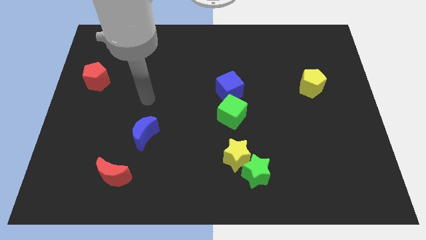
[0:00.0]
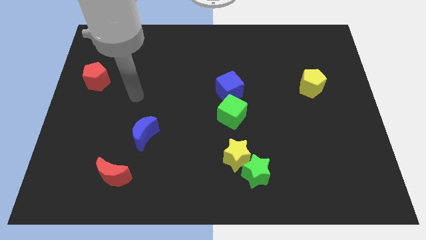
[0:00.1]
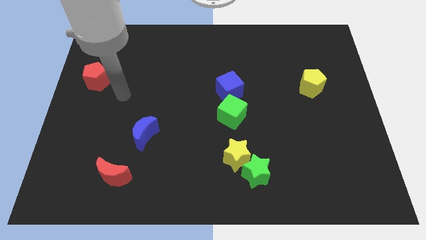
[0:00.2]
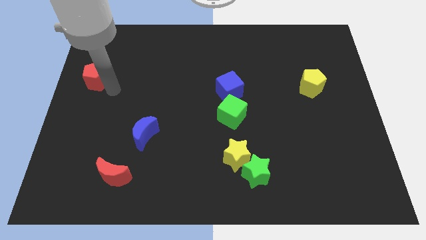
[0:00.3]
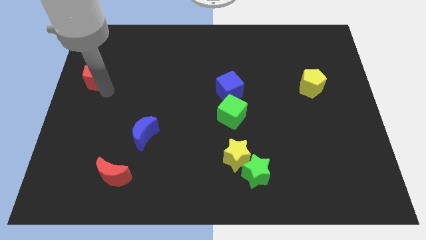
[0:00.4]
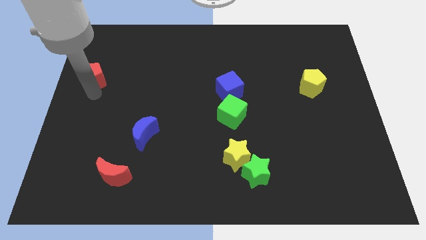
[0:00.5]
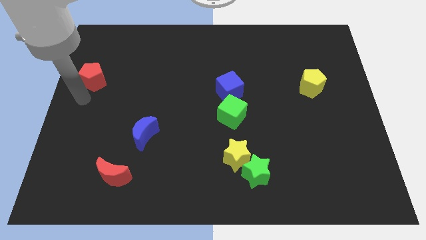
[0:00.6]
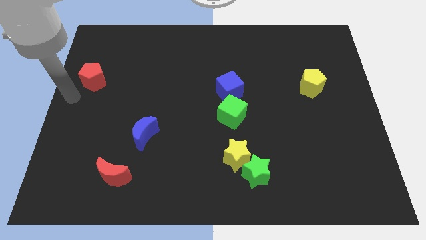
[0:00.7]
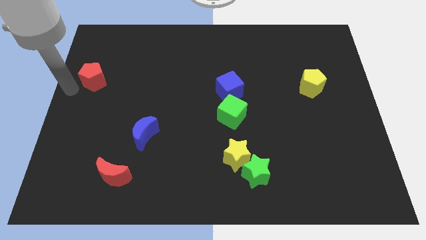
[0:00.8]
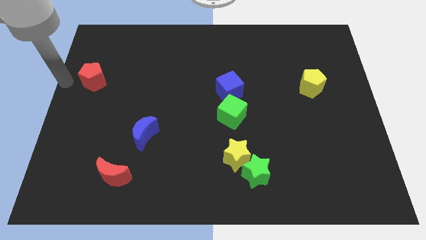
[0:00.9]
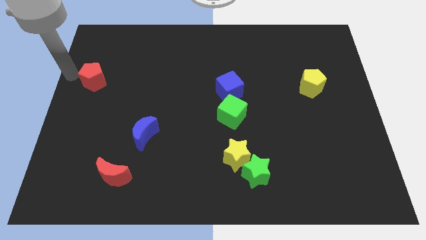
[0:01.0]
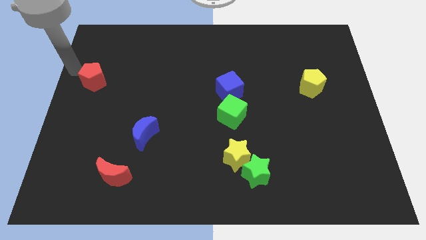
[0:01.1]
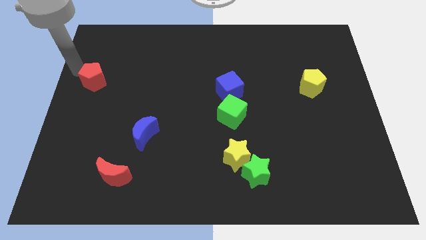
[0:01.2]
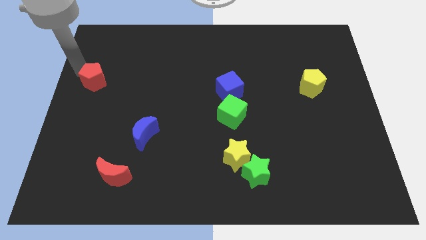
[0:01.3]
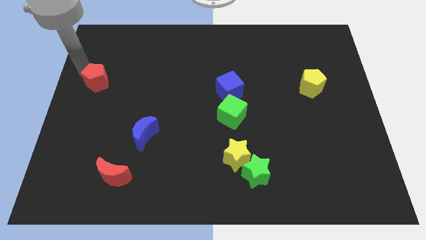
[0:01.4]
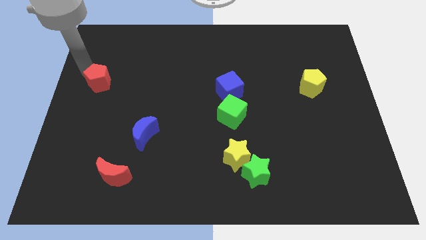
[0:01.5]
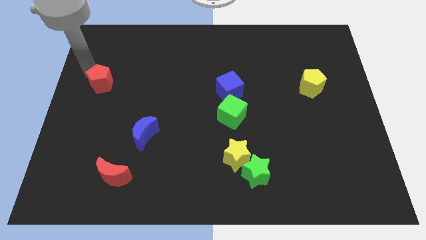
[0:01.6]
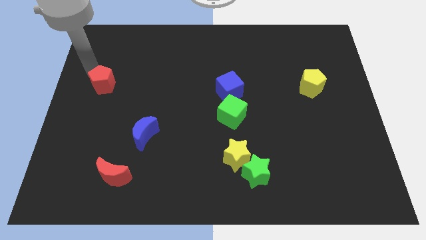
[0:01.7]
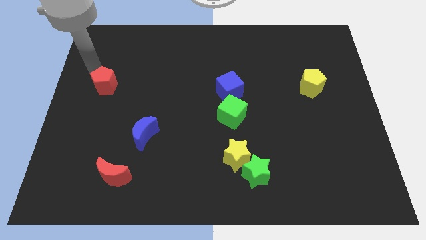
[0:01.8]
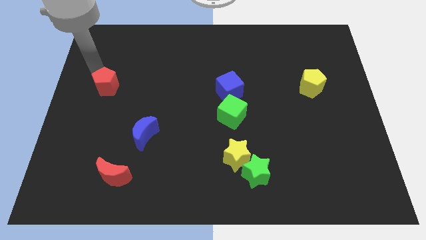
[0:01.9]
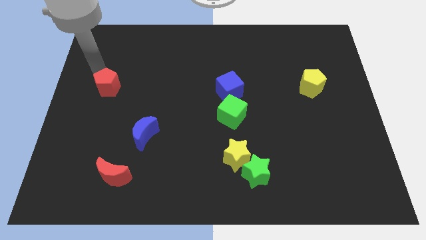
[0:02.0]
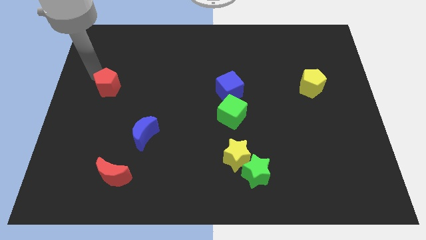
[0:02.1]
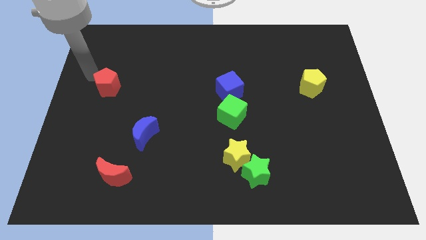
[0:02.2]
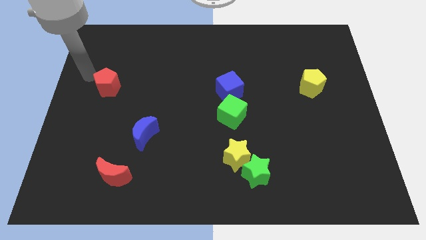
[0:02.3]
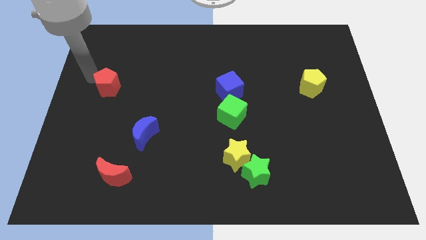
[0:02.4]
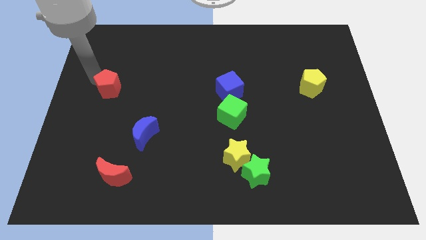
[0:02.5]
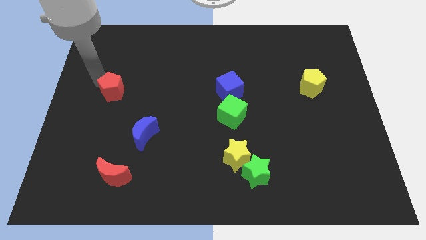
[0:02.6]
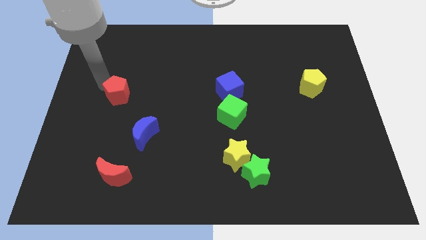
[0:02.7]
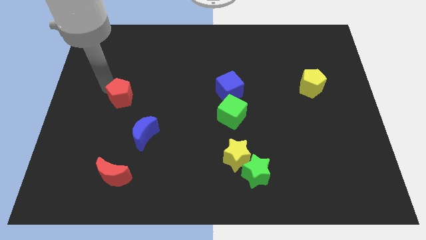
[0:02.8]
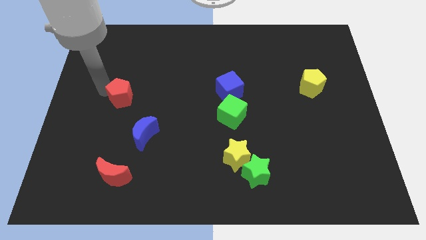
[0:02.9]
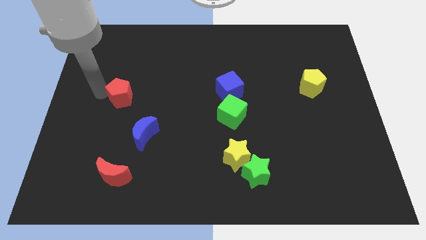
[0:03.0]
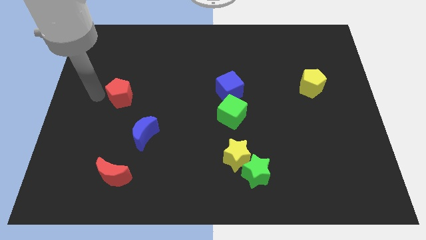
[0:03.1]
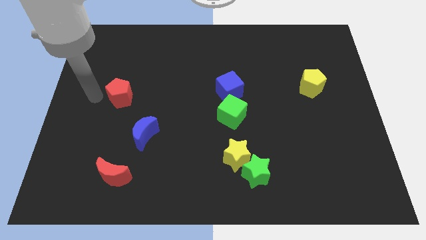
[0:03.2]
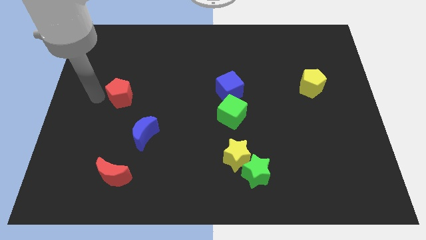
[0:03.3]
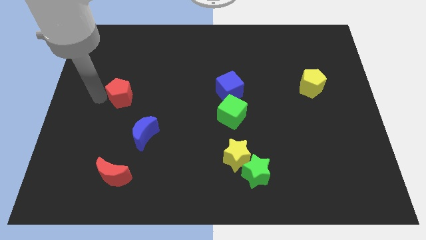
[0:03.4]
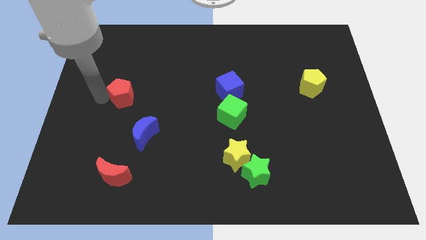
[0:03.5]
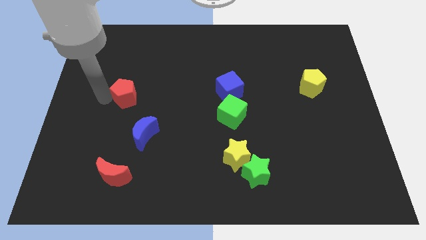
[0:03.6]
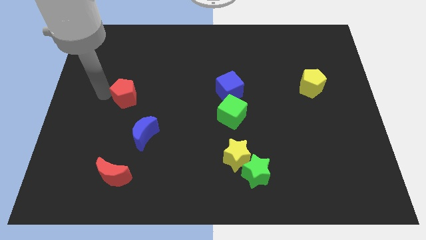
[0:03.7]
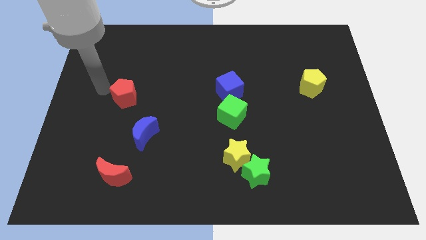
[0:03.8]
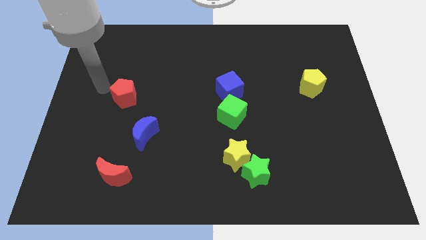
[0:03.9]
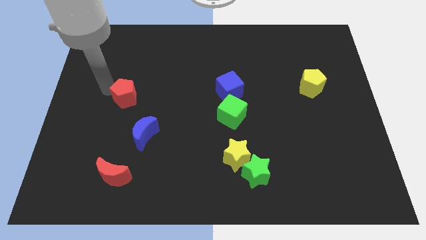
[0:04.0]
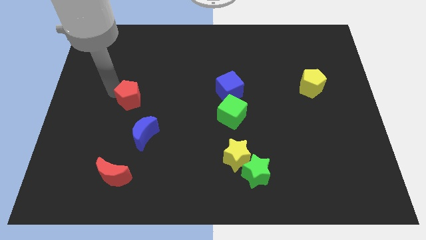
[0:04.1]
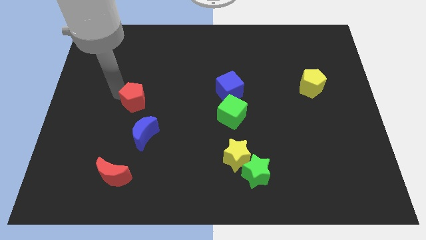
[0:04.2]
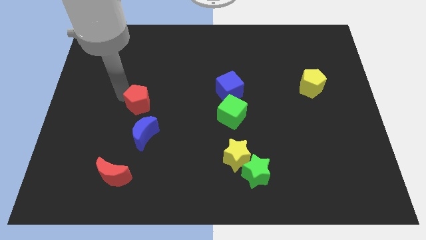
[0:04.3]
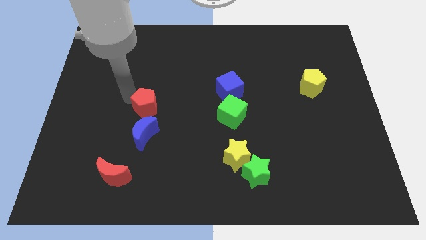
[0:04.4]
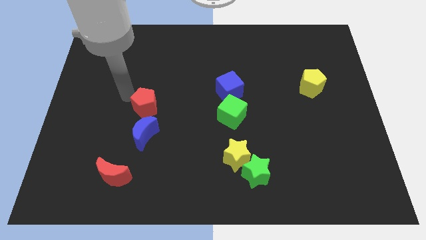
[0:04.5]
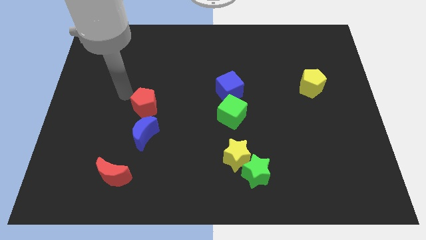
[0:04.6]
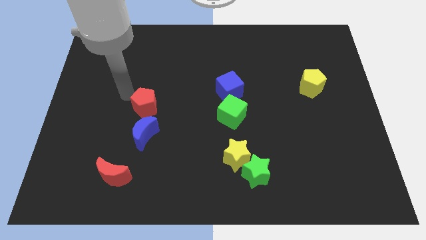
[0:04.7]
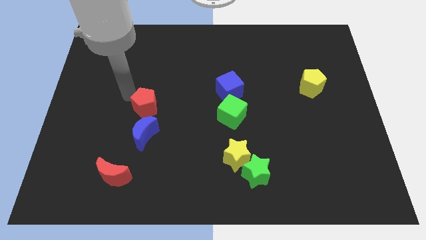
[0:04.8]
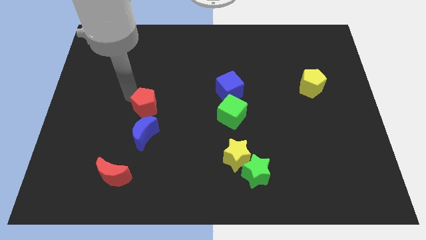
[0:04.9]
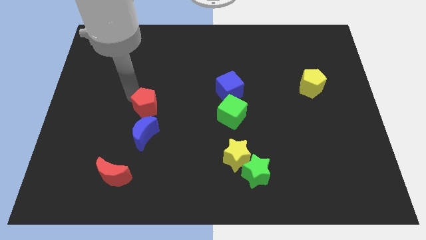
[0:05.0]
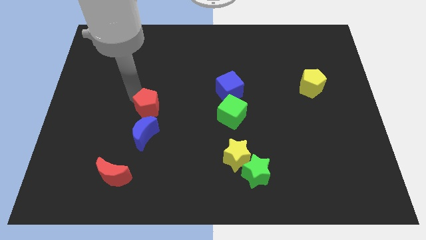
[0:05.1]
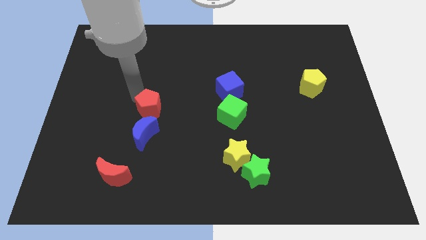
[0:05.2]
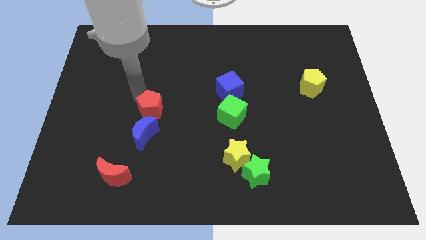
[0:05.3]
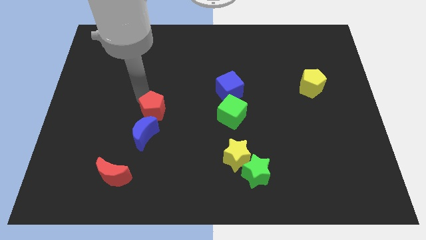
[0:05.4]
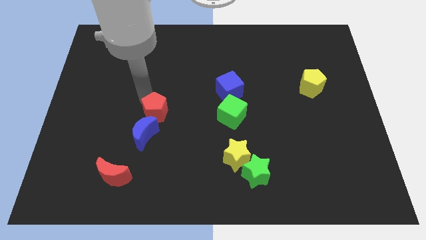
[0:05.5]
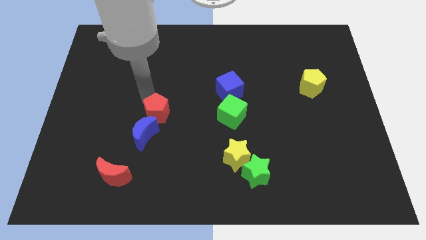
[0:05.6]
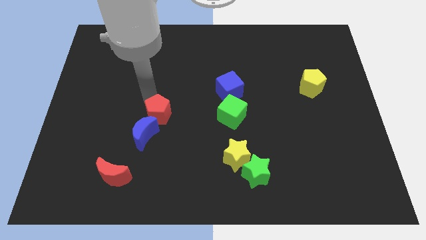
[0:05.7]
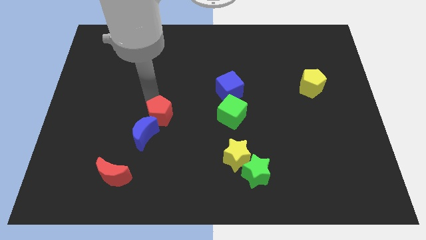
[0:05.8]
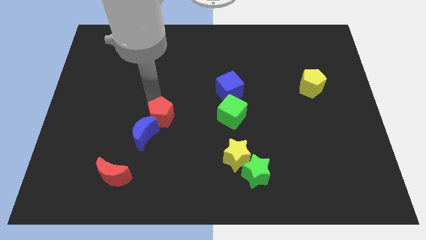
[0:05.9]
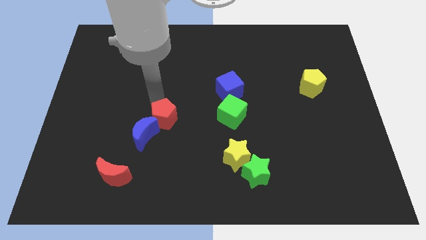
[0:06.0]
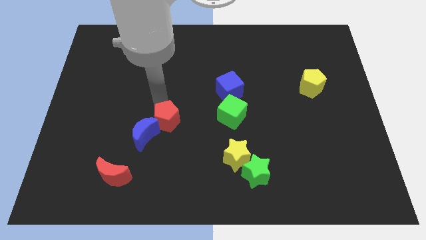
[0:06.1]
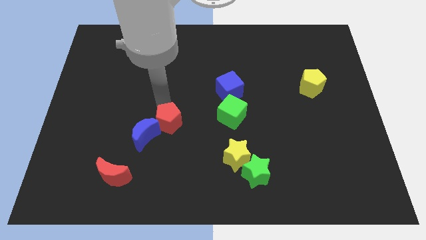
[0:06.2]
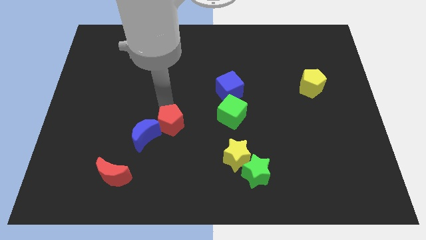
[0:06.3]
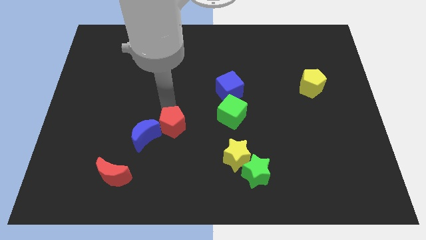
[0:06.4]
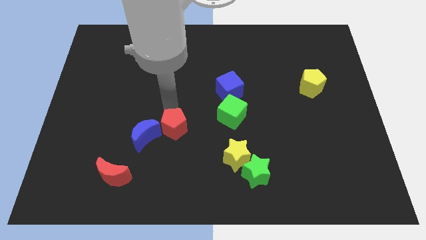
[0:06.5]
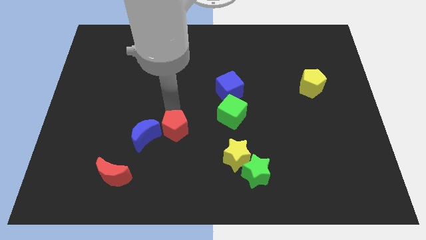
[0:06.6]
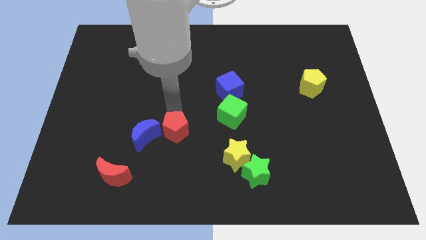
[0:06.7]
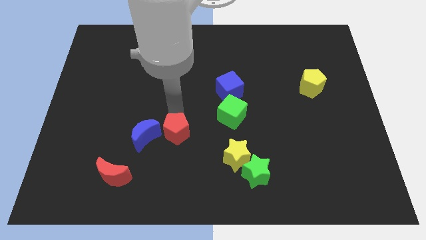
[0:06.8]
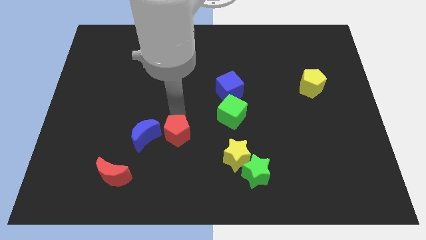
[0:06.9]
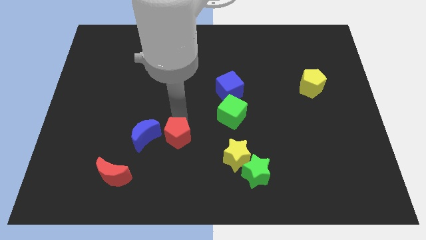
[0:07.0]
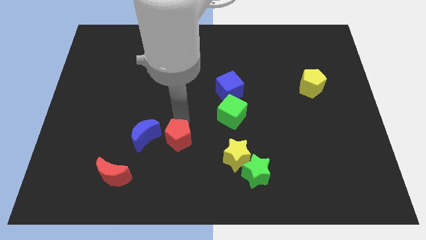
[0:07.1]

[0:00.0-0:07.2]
push the red pentagon to the left side of the yellow star
